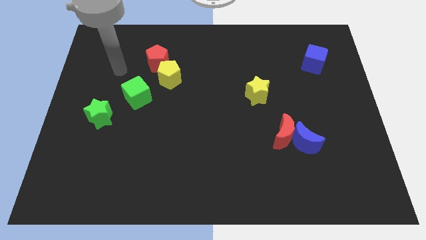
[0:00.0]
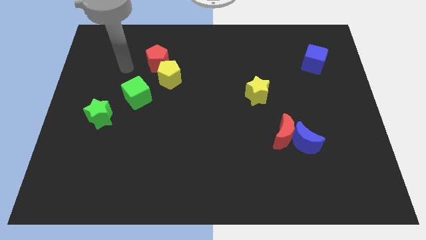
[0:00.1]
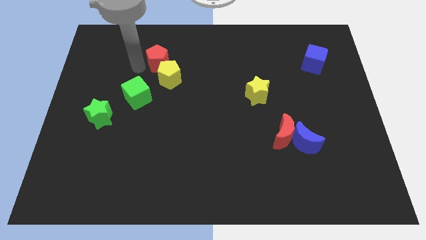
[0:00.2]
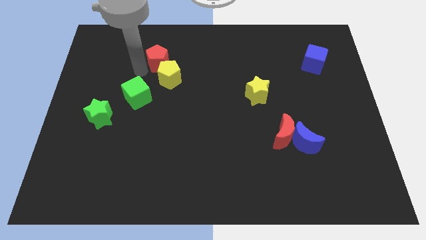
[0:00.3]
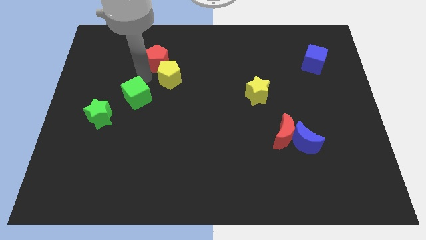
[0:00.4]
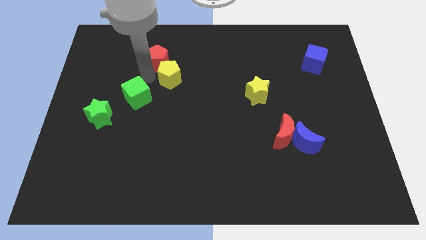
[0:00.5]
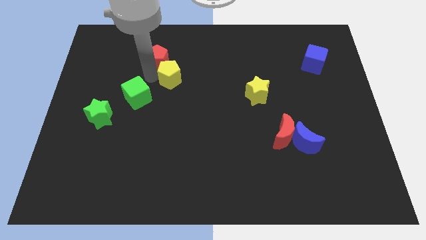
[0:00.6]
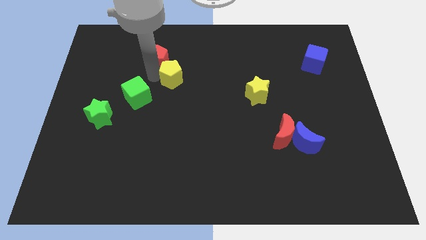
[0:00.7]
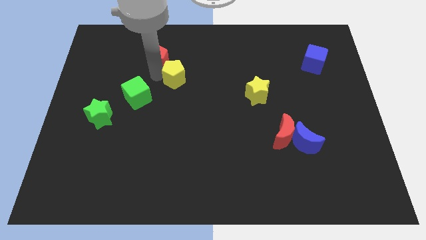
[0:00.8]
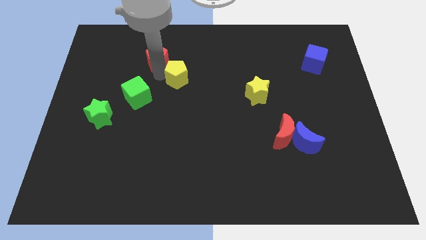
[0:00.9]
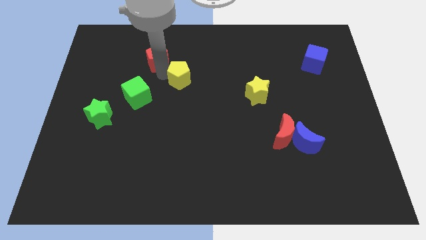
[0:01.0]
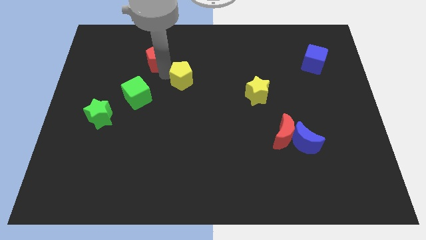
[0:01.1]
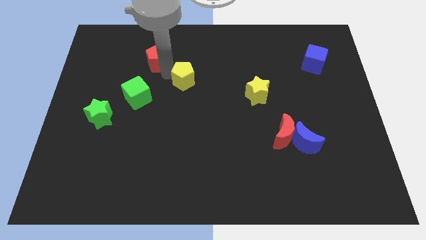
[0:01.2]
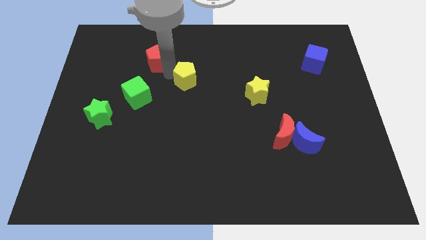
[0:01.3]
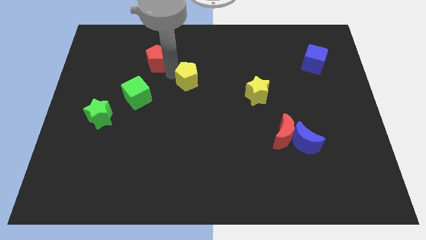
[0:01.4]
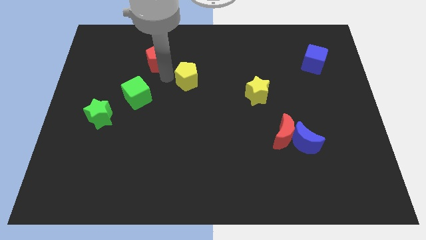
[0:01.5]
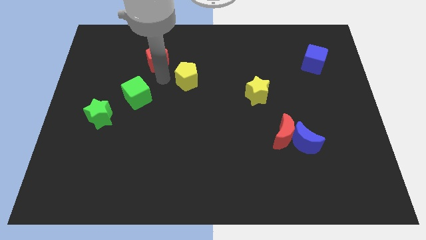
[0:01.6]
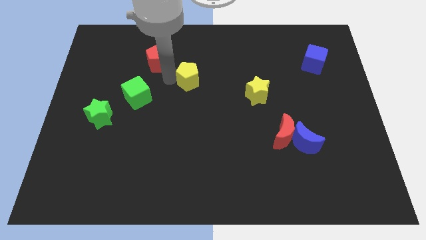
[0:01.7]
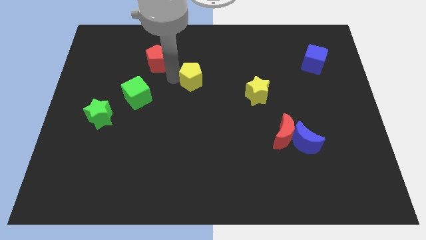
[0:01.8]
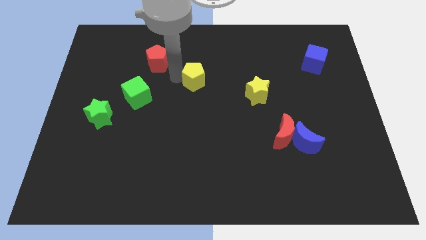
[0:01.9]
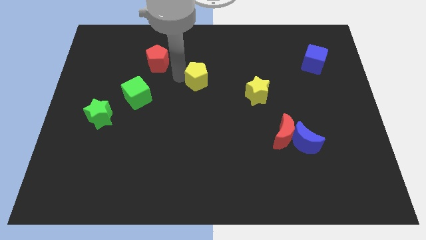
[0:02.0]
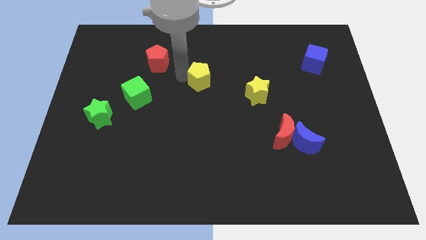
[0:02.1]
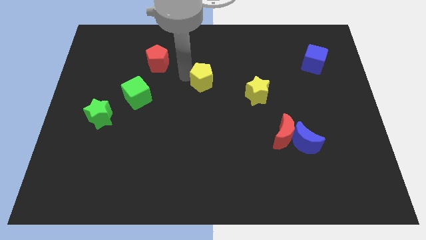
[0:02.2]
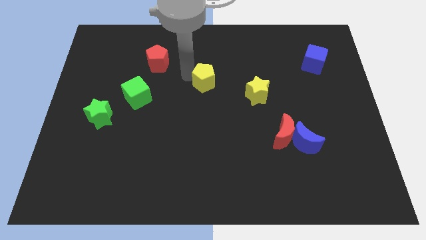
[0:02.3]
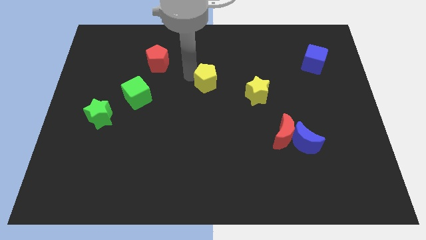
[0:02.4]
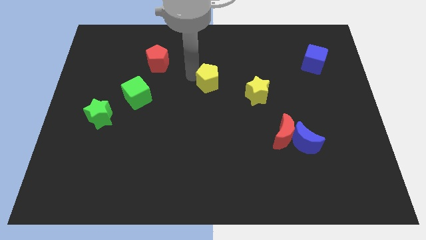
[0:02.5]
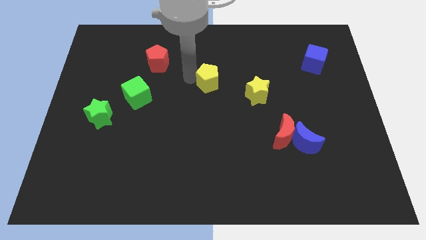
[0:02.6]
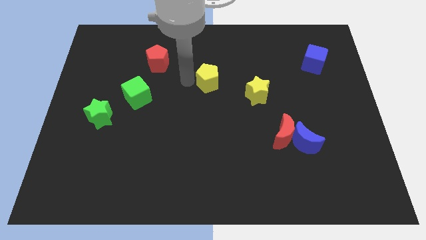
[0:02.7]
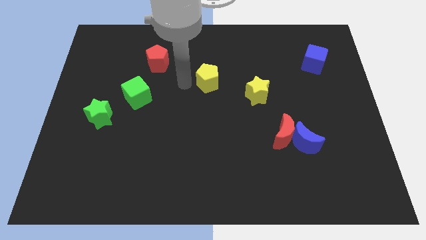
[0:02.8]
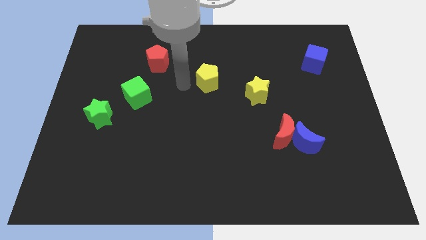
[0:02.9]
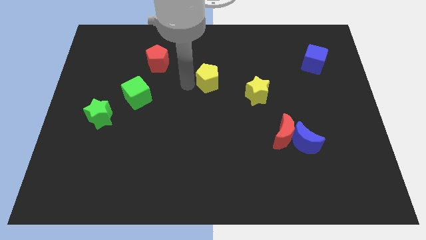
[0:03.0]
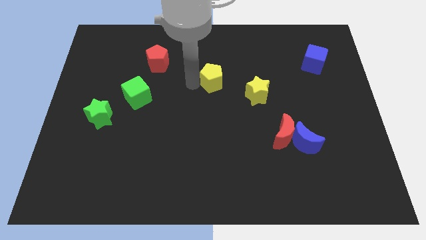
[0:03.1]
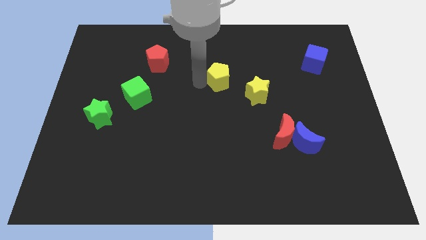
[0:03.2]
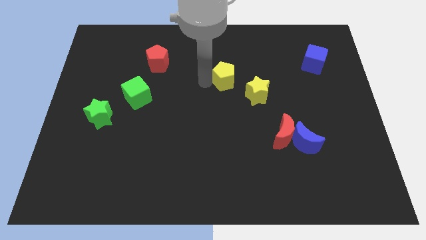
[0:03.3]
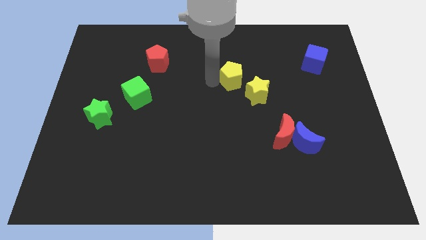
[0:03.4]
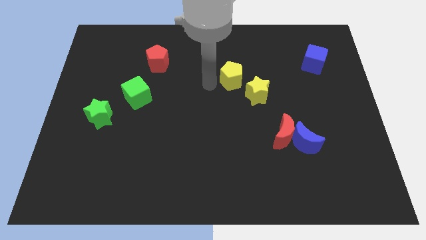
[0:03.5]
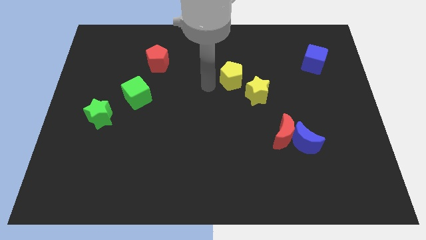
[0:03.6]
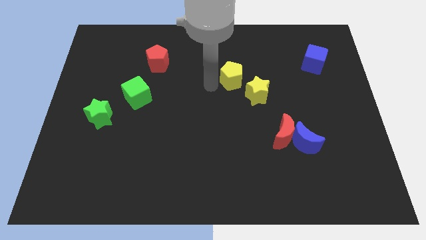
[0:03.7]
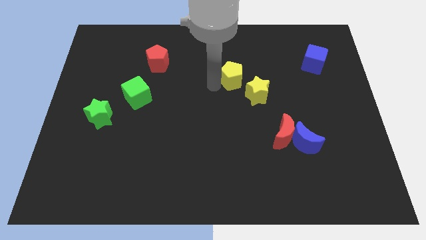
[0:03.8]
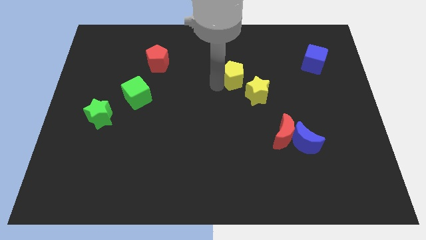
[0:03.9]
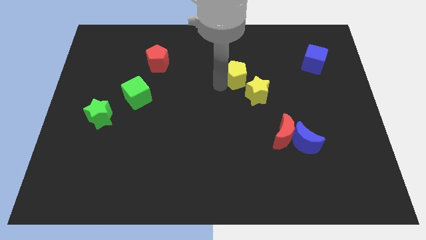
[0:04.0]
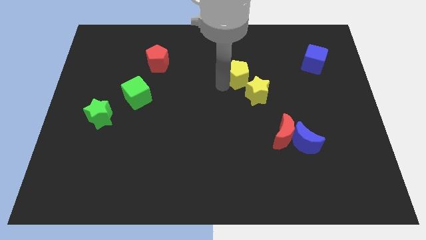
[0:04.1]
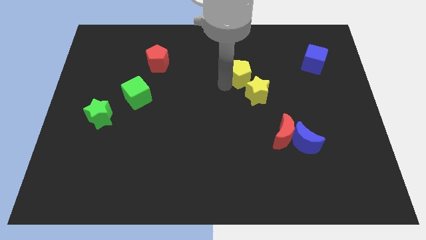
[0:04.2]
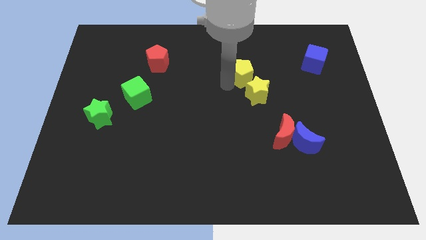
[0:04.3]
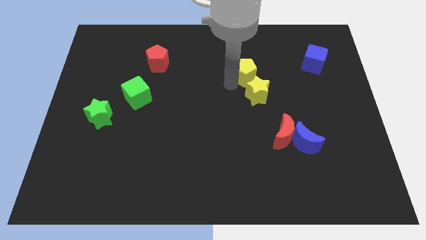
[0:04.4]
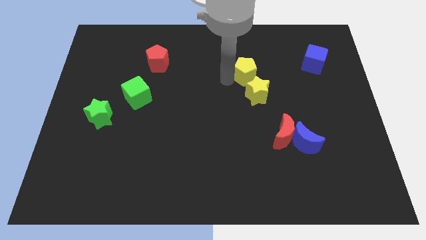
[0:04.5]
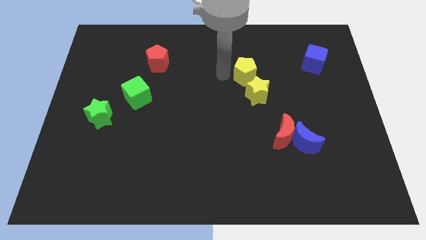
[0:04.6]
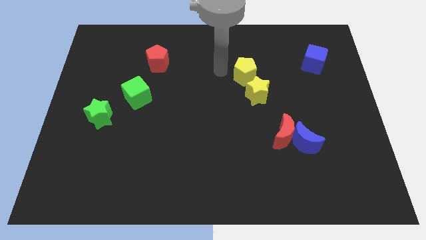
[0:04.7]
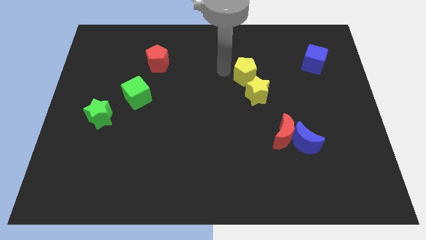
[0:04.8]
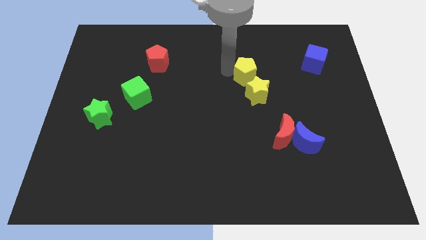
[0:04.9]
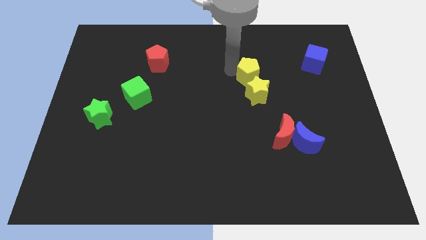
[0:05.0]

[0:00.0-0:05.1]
push the yellow pentagon right

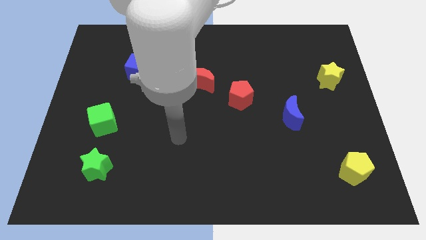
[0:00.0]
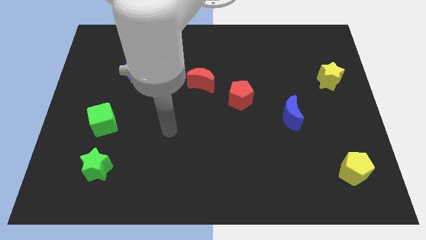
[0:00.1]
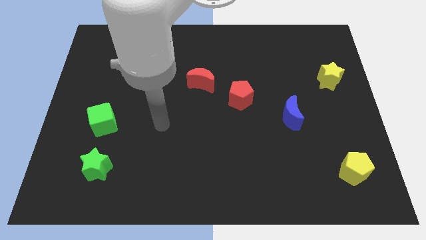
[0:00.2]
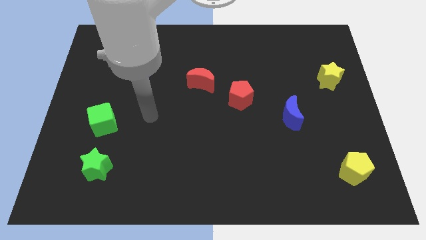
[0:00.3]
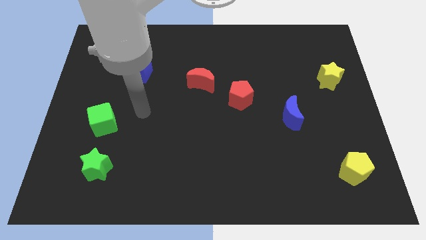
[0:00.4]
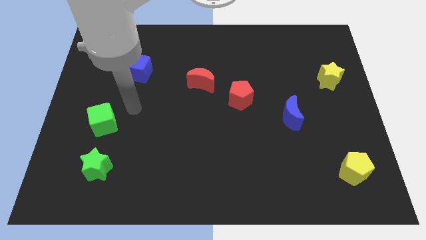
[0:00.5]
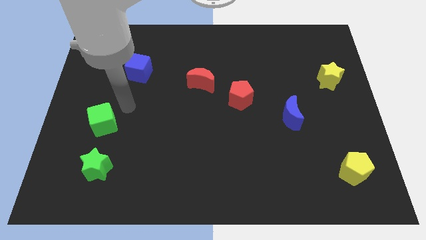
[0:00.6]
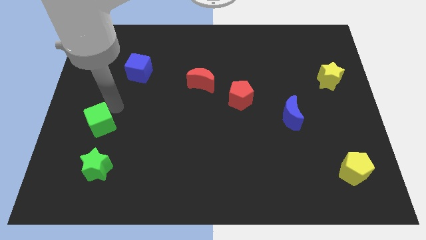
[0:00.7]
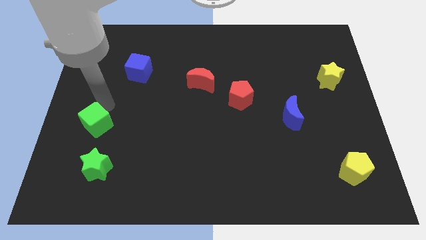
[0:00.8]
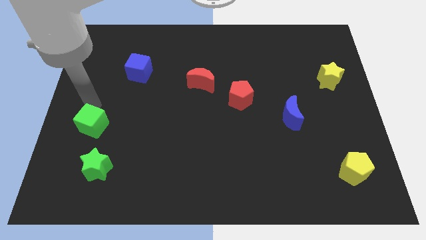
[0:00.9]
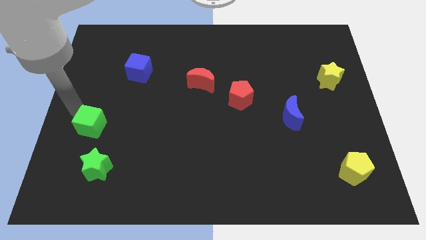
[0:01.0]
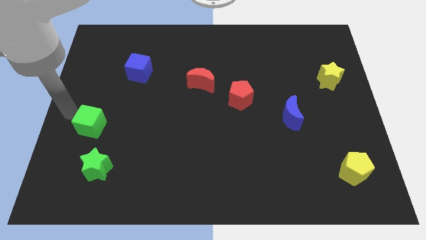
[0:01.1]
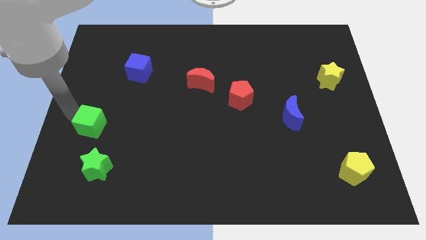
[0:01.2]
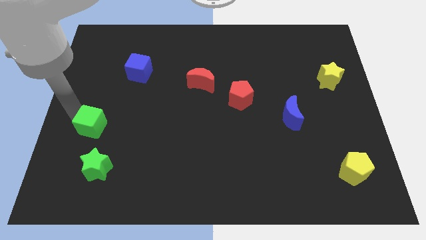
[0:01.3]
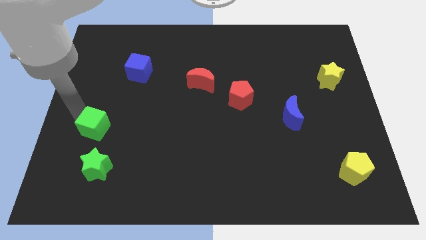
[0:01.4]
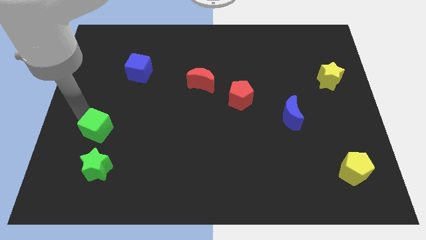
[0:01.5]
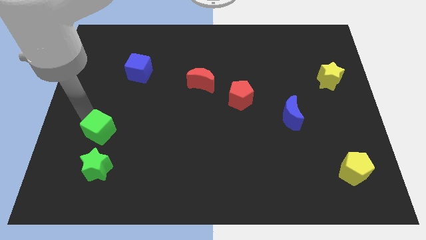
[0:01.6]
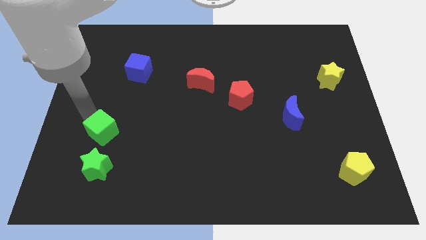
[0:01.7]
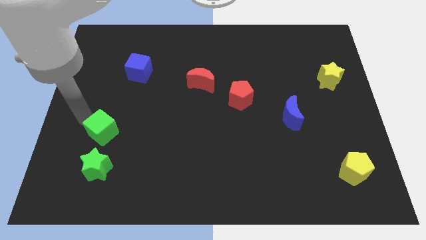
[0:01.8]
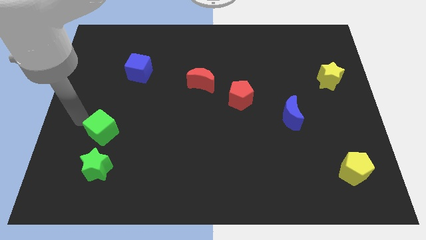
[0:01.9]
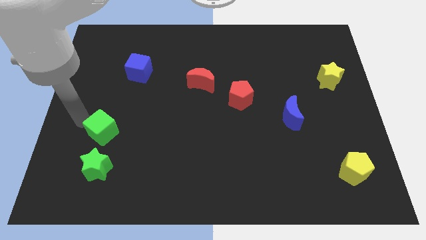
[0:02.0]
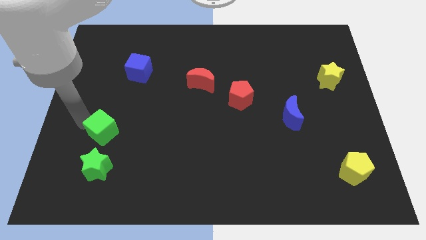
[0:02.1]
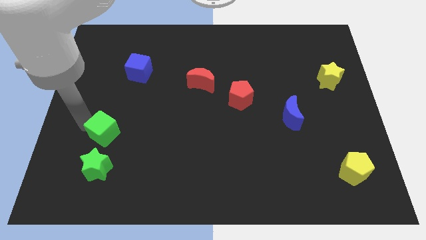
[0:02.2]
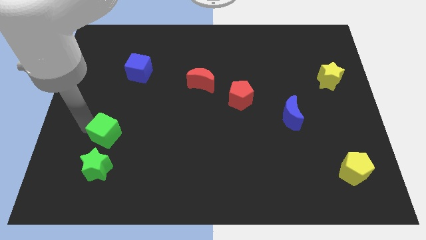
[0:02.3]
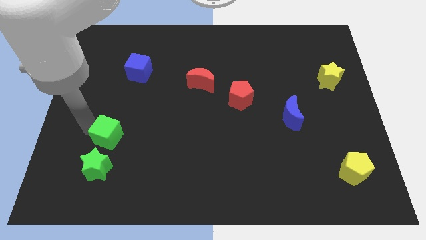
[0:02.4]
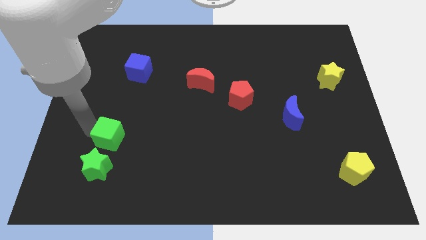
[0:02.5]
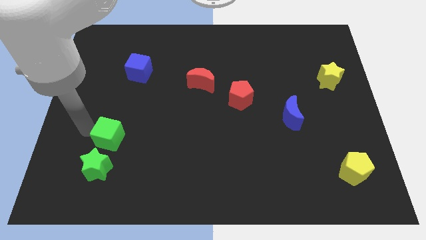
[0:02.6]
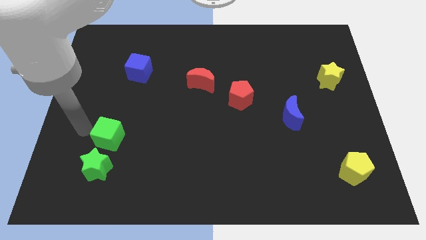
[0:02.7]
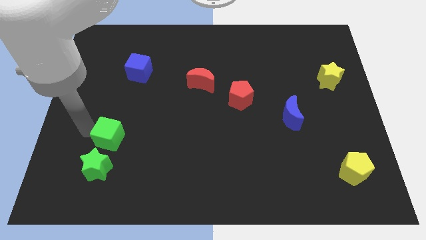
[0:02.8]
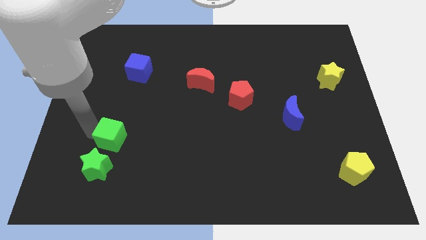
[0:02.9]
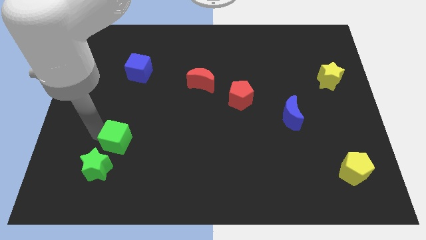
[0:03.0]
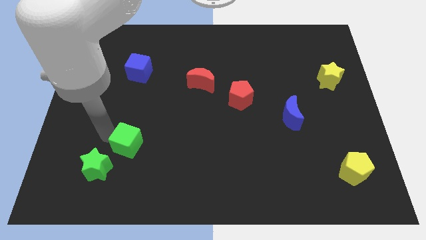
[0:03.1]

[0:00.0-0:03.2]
slightly move the green cube down and right diagonally
